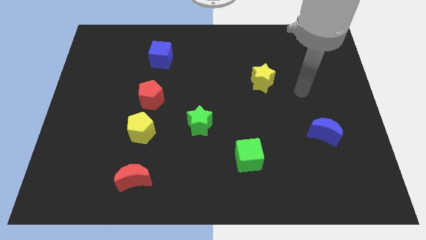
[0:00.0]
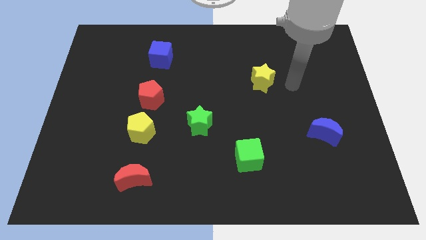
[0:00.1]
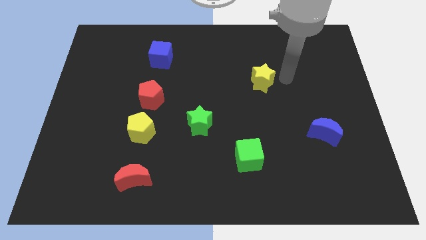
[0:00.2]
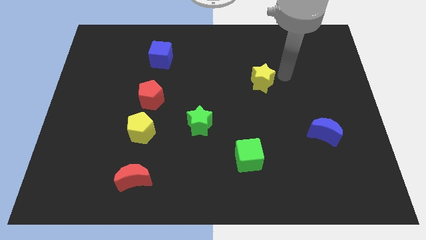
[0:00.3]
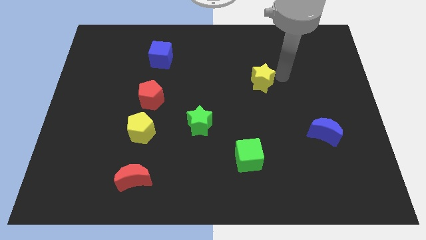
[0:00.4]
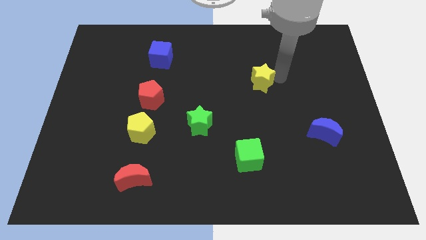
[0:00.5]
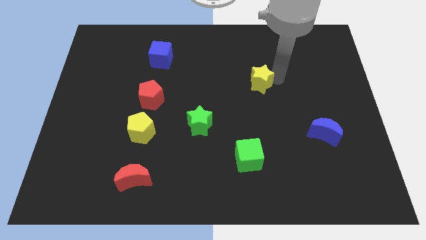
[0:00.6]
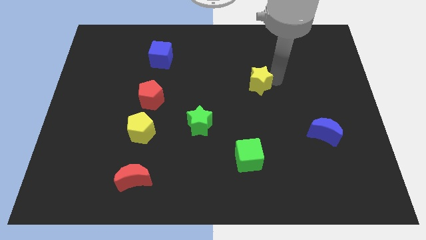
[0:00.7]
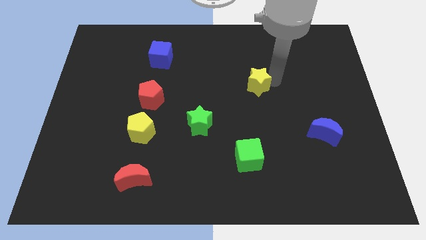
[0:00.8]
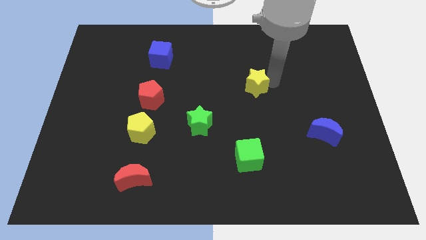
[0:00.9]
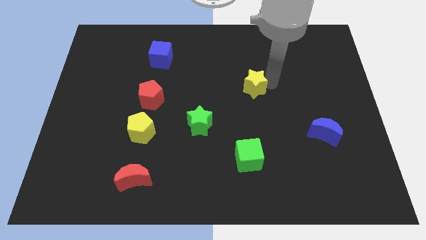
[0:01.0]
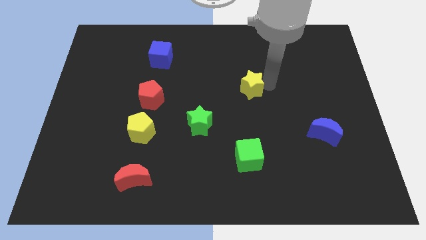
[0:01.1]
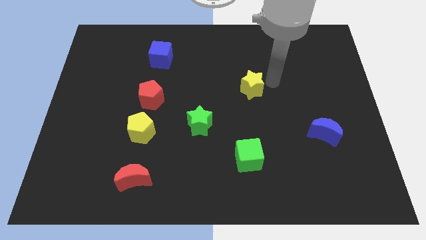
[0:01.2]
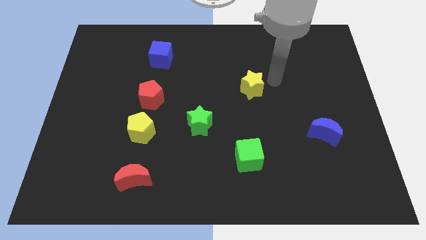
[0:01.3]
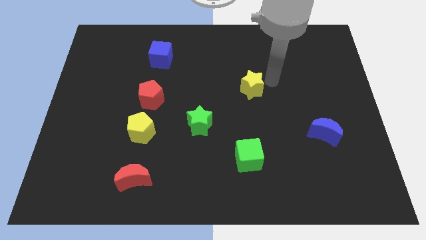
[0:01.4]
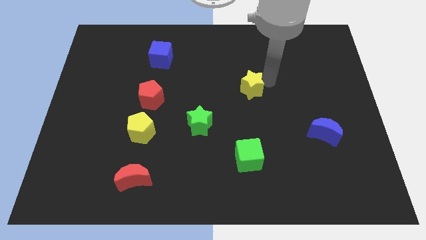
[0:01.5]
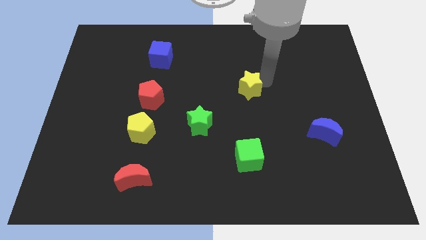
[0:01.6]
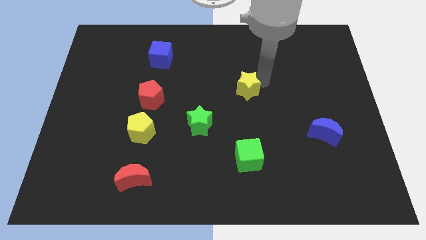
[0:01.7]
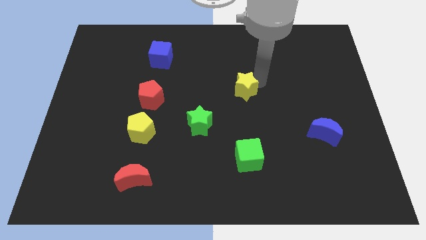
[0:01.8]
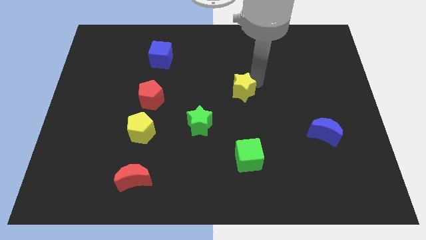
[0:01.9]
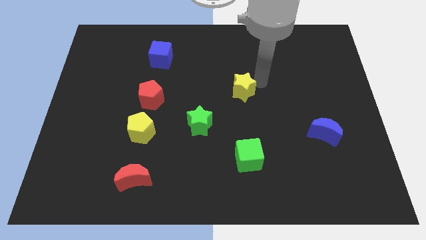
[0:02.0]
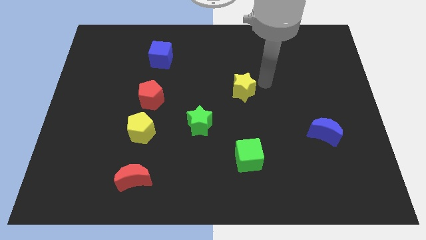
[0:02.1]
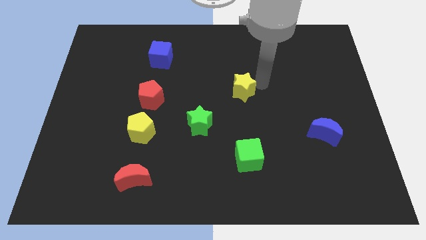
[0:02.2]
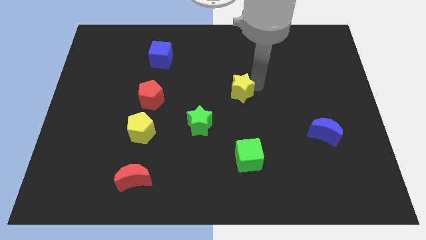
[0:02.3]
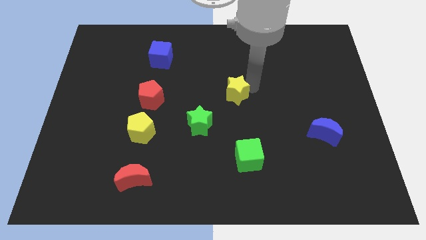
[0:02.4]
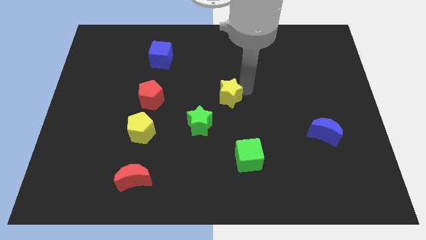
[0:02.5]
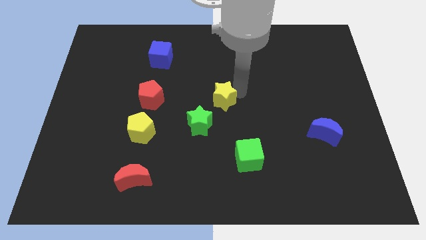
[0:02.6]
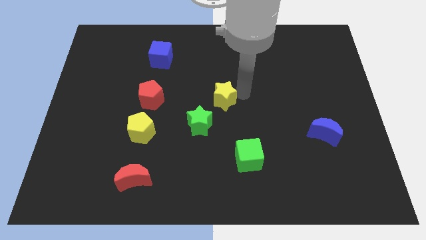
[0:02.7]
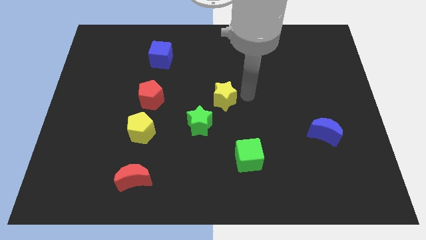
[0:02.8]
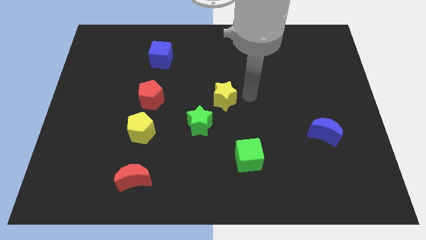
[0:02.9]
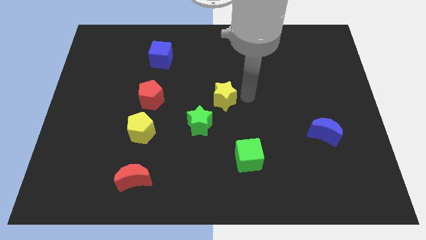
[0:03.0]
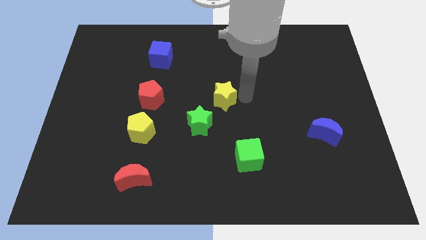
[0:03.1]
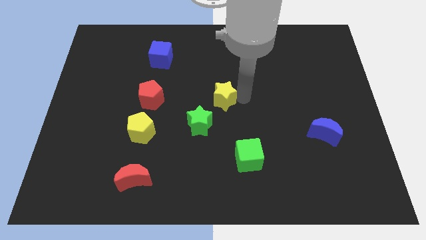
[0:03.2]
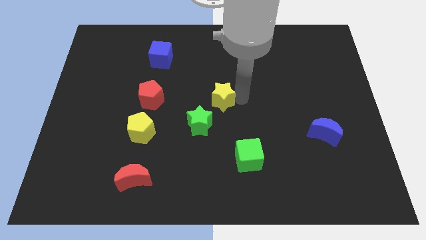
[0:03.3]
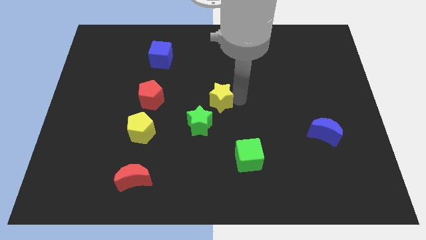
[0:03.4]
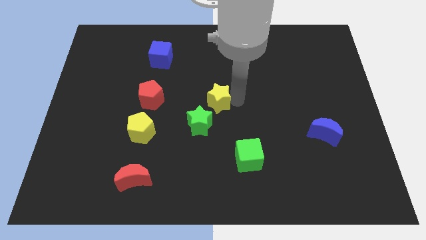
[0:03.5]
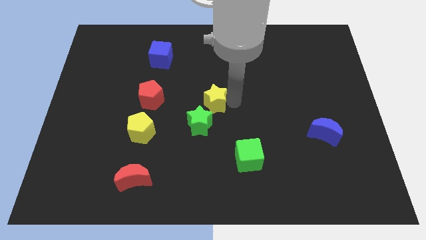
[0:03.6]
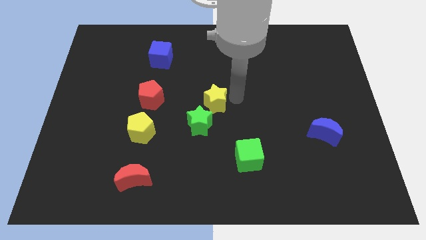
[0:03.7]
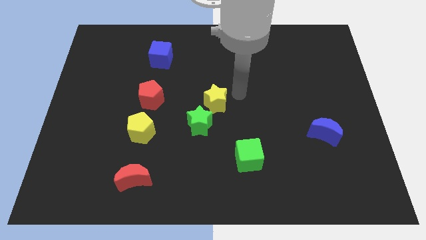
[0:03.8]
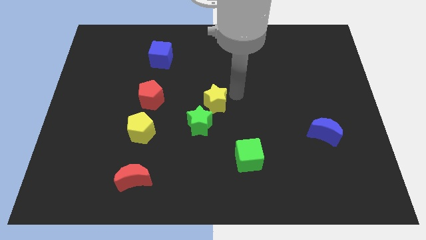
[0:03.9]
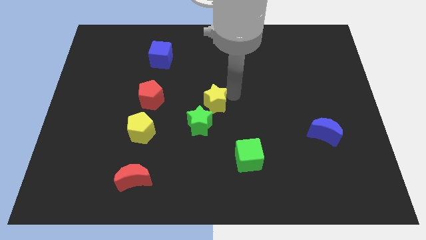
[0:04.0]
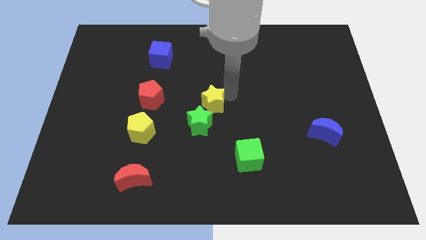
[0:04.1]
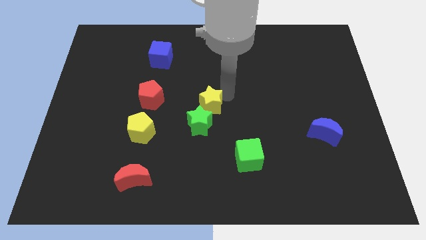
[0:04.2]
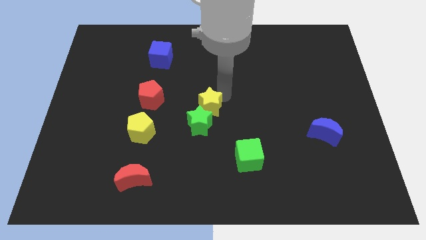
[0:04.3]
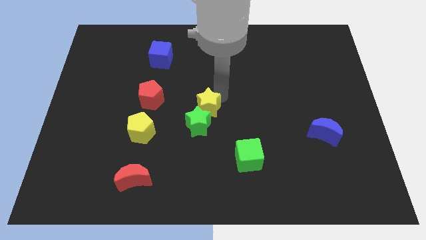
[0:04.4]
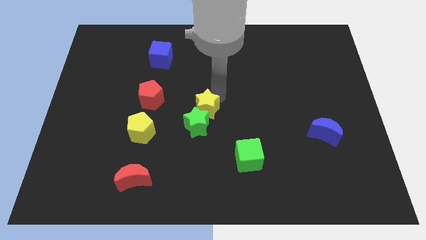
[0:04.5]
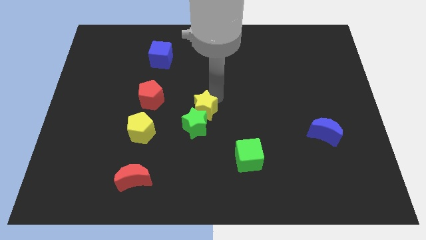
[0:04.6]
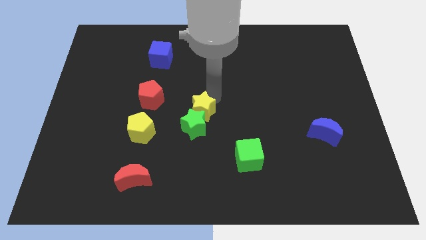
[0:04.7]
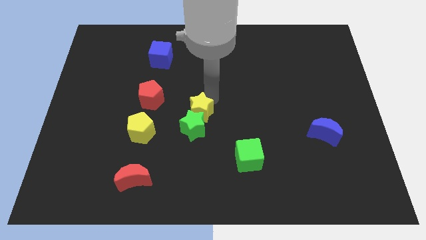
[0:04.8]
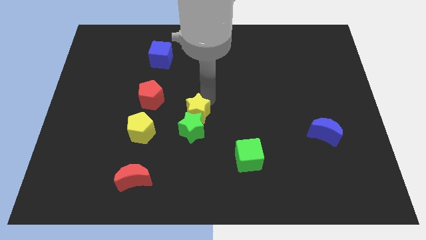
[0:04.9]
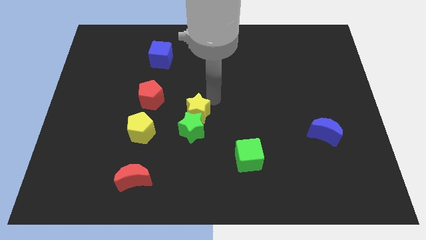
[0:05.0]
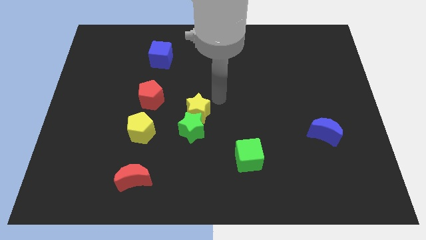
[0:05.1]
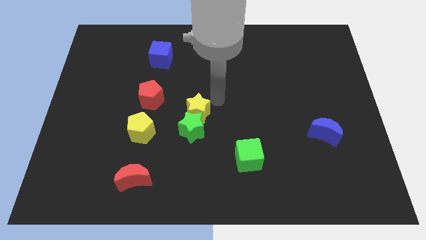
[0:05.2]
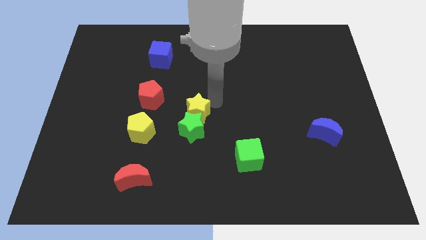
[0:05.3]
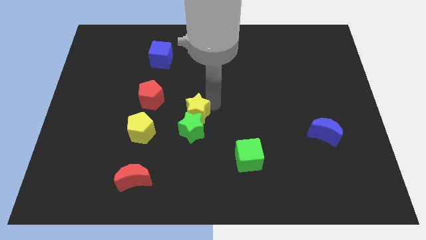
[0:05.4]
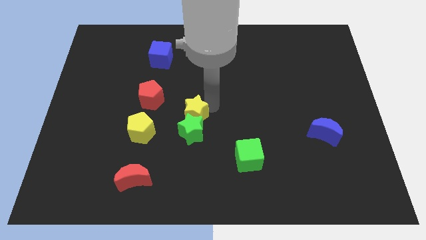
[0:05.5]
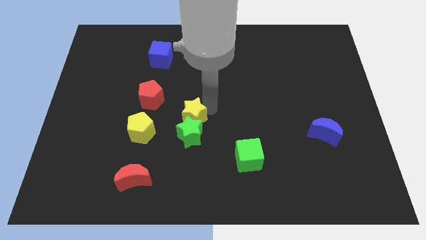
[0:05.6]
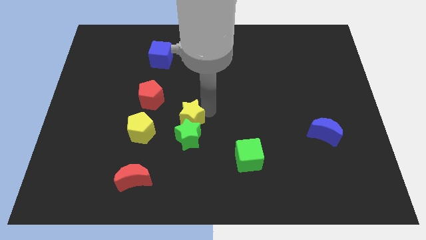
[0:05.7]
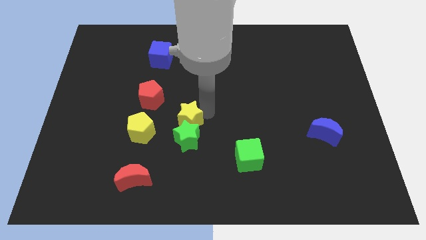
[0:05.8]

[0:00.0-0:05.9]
push the yellow star downwards and then to the left

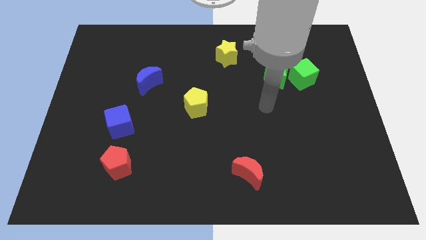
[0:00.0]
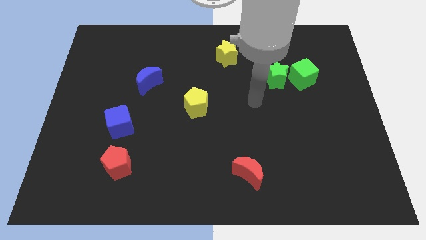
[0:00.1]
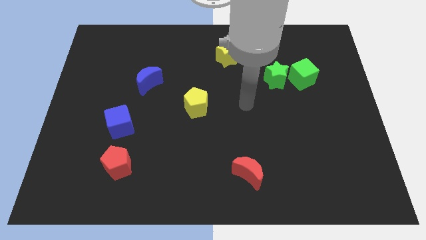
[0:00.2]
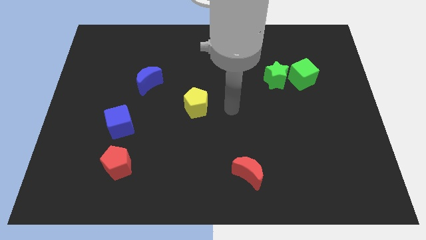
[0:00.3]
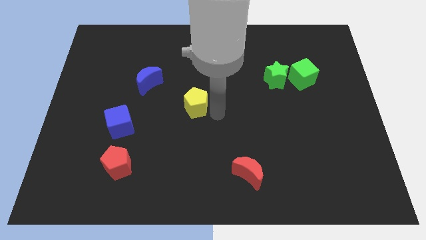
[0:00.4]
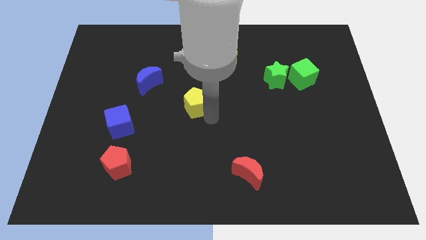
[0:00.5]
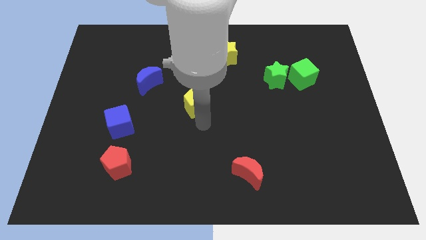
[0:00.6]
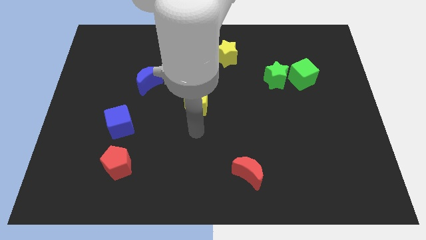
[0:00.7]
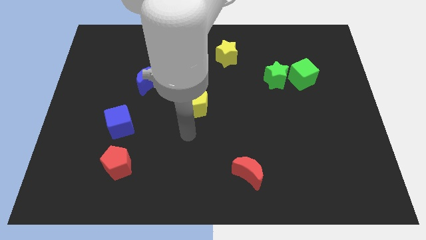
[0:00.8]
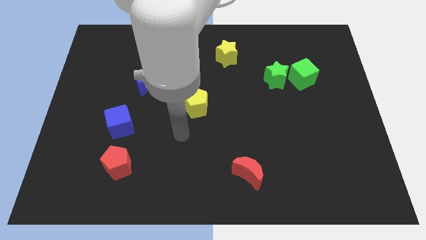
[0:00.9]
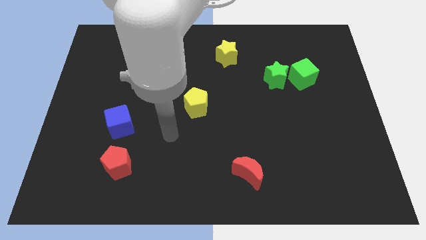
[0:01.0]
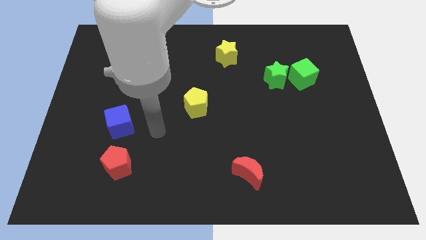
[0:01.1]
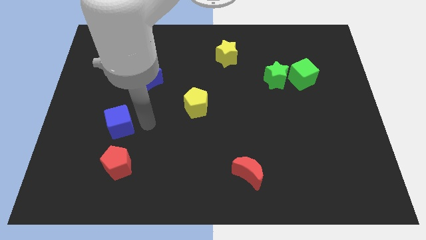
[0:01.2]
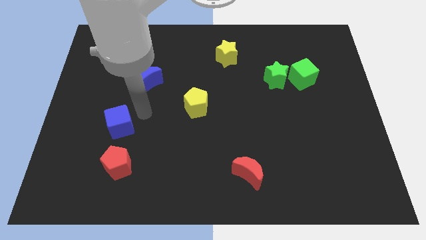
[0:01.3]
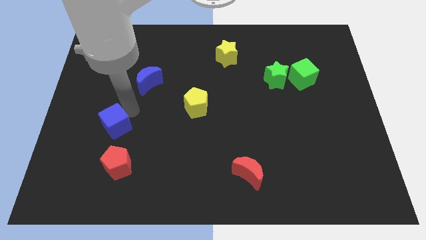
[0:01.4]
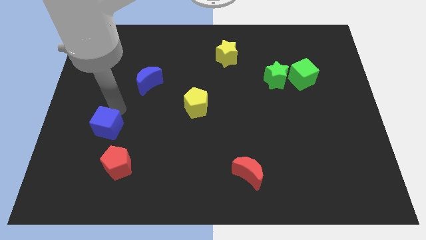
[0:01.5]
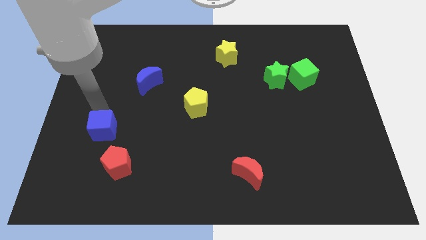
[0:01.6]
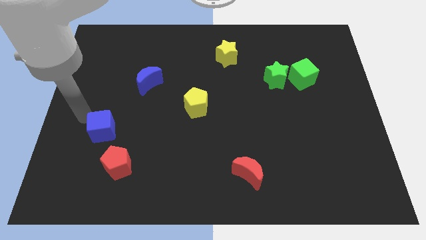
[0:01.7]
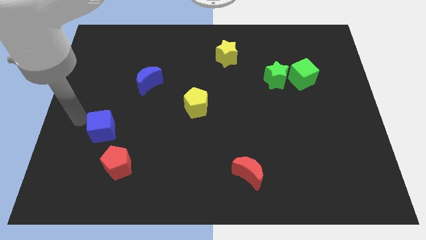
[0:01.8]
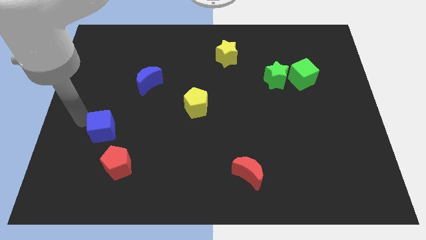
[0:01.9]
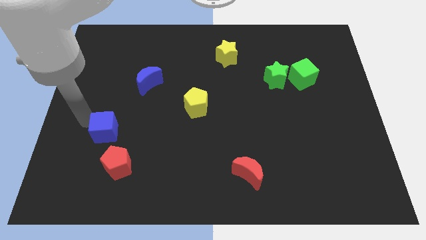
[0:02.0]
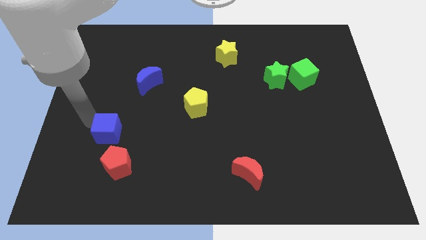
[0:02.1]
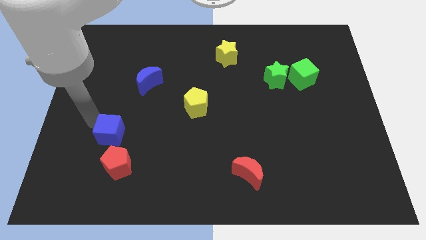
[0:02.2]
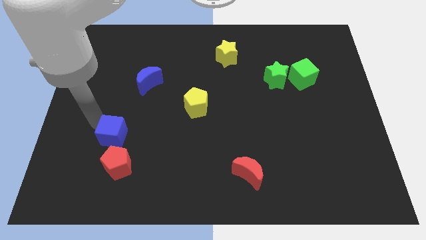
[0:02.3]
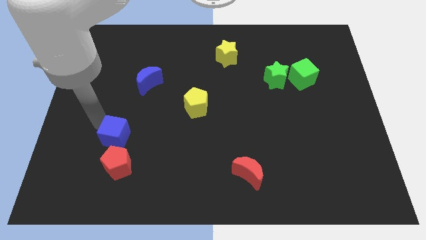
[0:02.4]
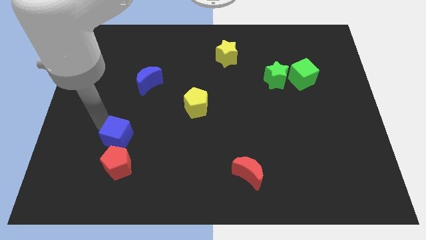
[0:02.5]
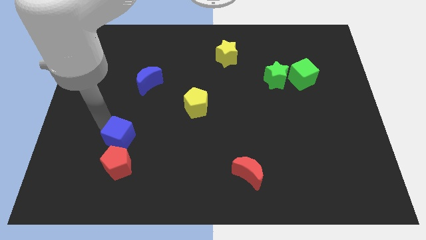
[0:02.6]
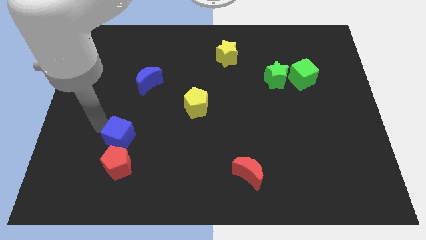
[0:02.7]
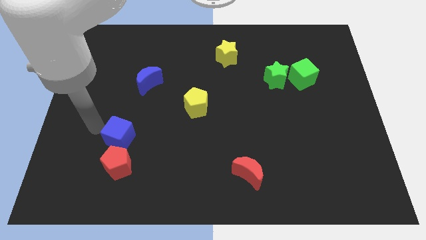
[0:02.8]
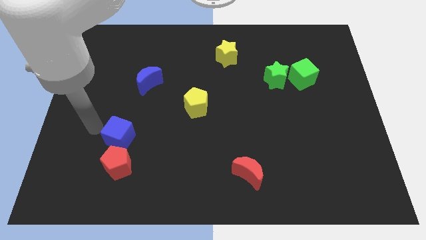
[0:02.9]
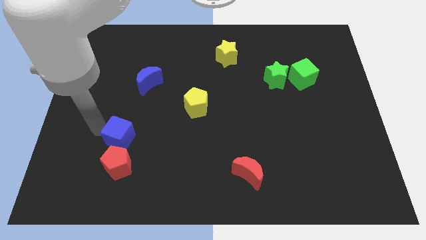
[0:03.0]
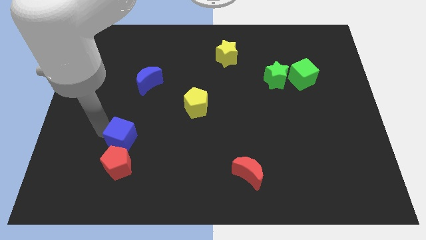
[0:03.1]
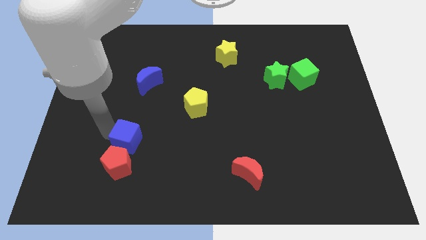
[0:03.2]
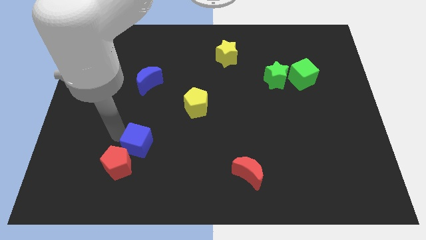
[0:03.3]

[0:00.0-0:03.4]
move the blue cube a little bit down and to the right diagonally
